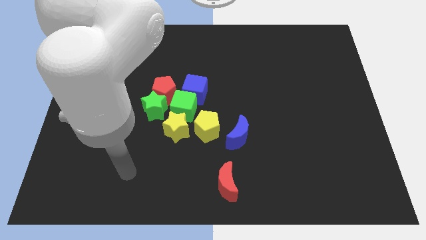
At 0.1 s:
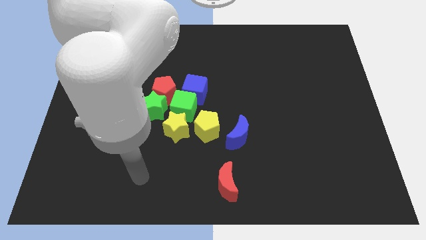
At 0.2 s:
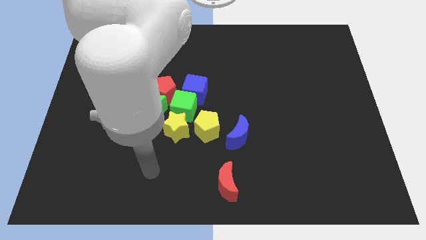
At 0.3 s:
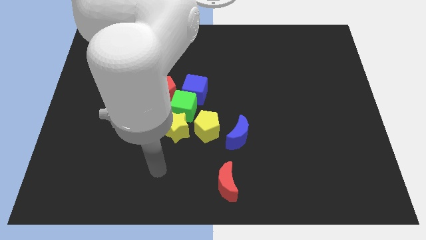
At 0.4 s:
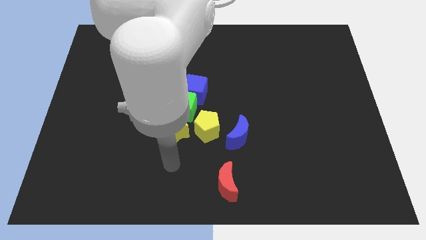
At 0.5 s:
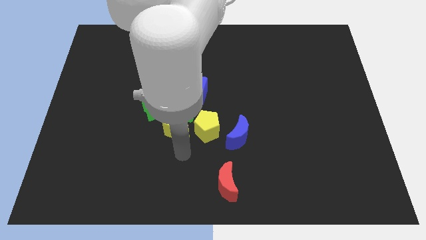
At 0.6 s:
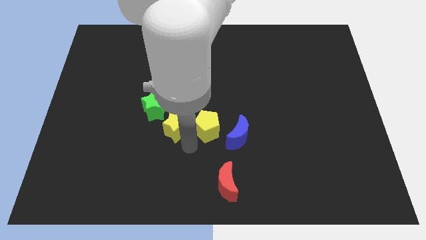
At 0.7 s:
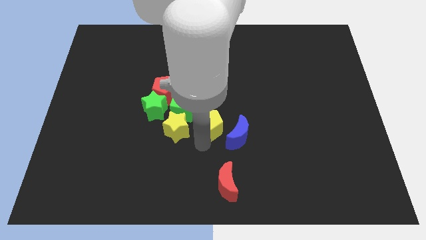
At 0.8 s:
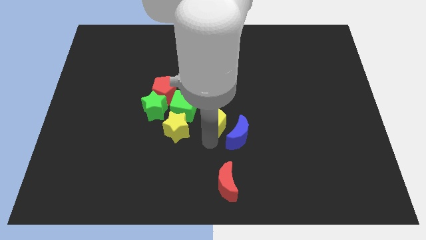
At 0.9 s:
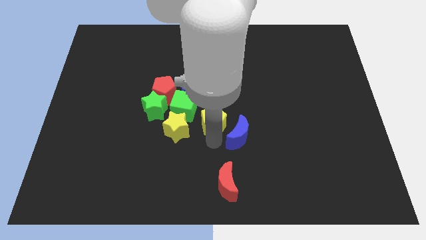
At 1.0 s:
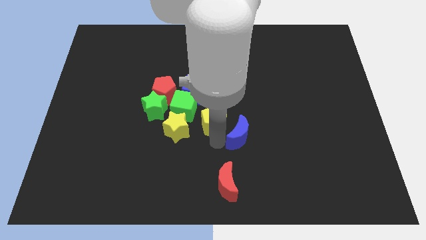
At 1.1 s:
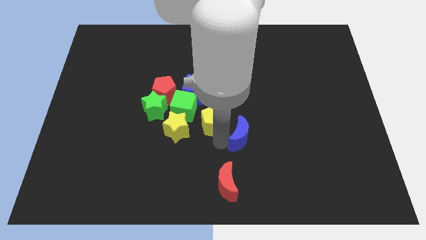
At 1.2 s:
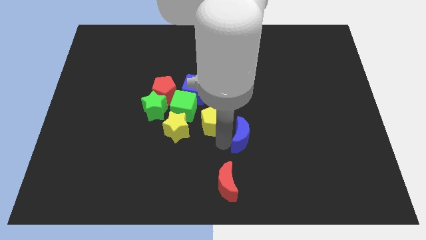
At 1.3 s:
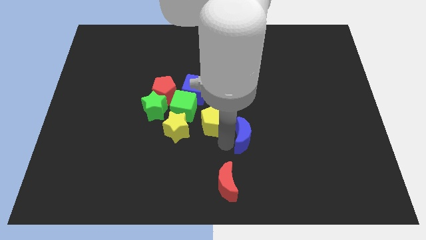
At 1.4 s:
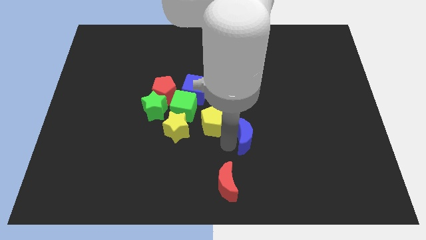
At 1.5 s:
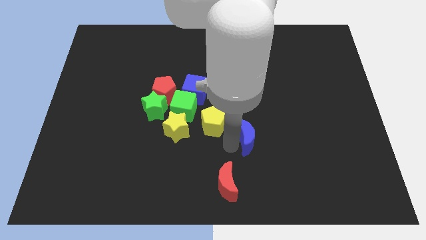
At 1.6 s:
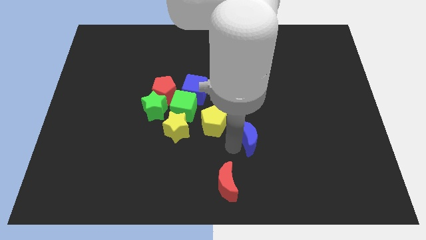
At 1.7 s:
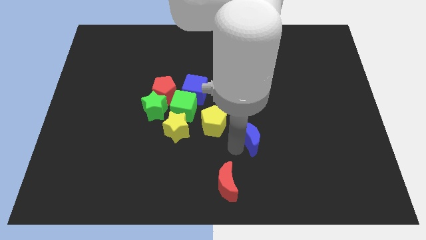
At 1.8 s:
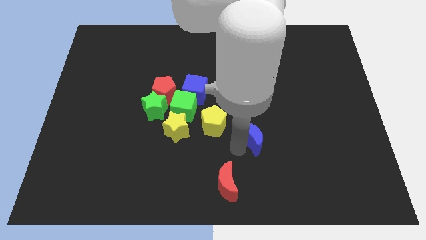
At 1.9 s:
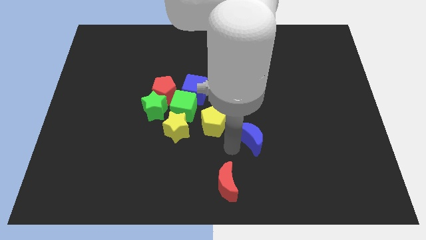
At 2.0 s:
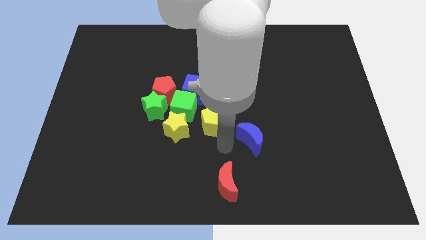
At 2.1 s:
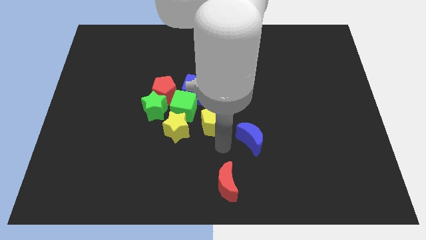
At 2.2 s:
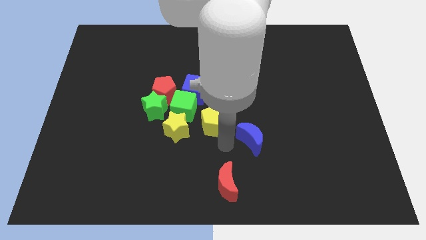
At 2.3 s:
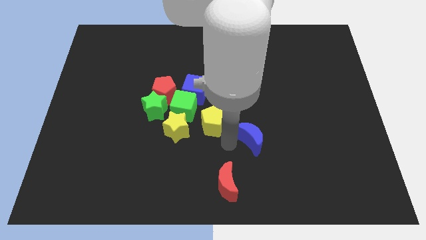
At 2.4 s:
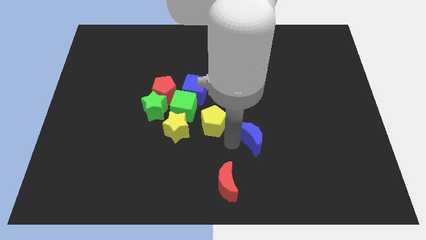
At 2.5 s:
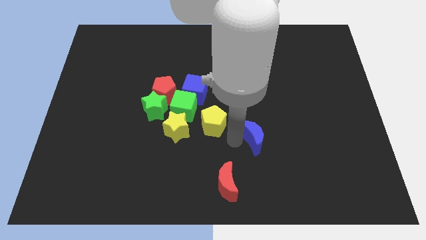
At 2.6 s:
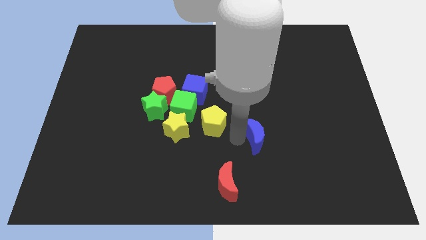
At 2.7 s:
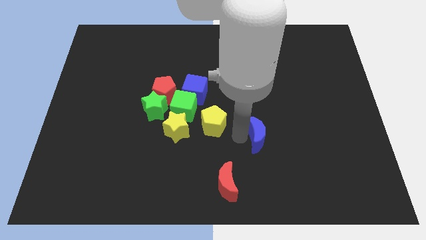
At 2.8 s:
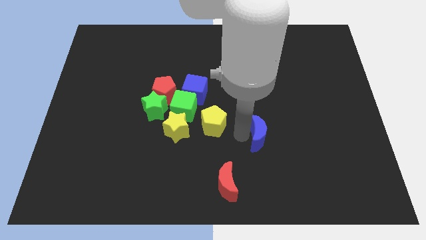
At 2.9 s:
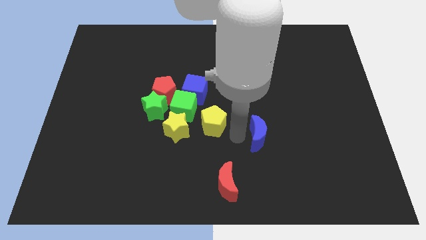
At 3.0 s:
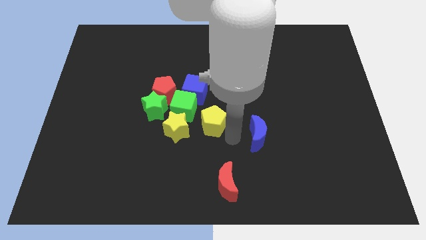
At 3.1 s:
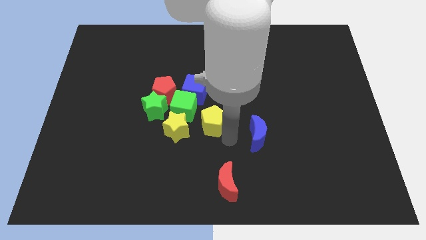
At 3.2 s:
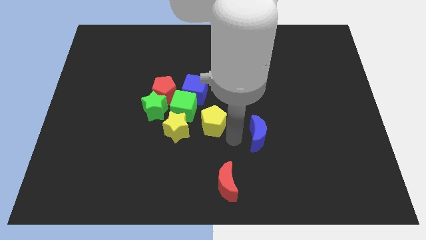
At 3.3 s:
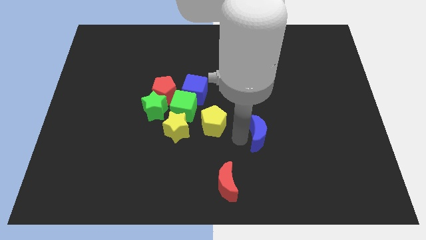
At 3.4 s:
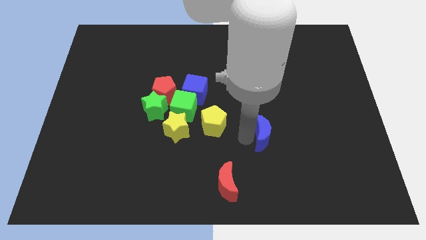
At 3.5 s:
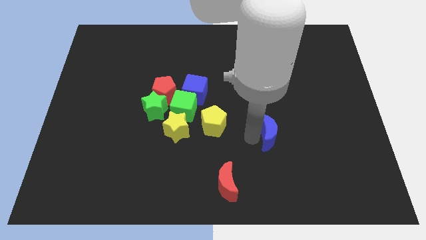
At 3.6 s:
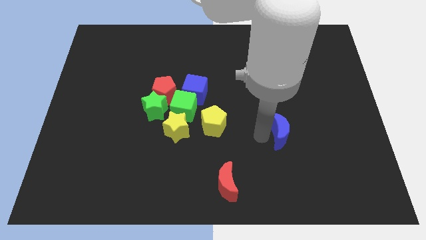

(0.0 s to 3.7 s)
move the blue moon right a little bit

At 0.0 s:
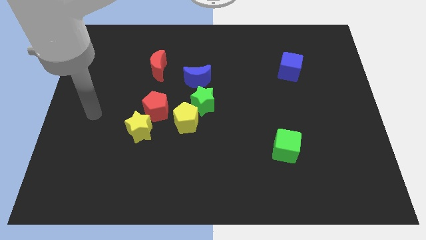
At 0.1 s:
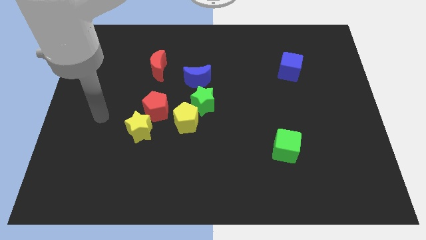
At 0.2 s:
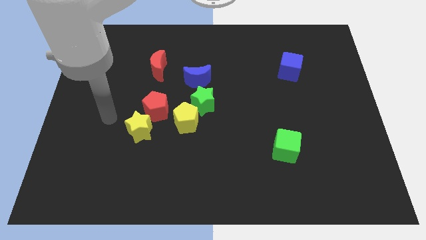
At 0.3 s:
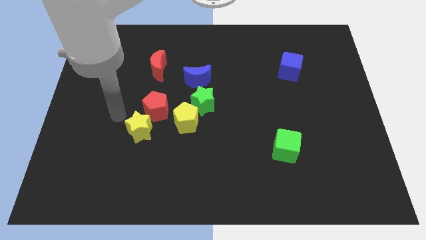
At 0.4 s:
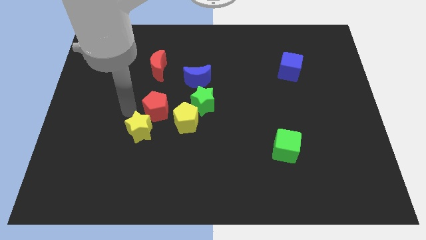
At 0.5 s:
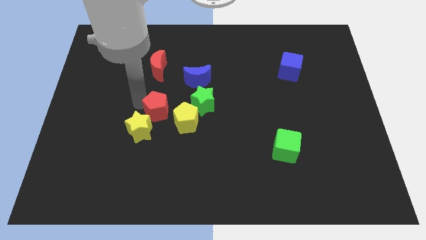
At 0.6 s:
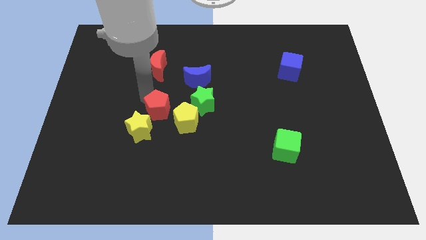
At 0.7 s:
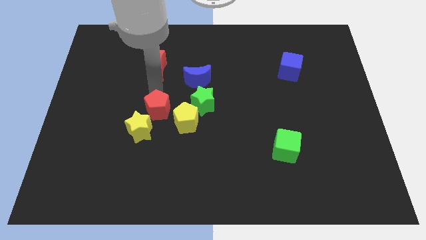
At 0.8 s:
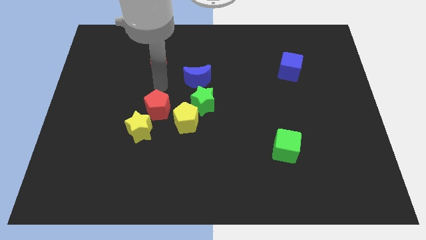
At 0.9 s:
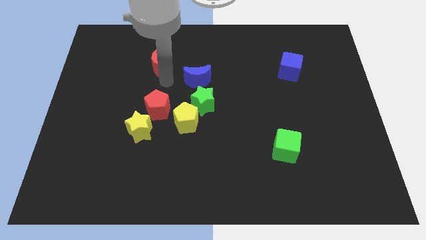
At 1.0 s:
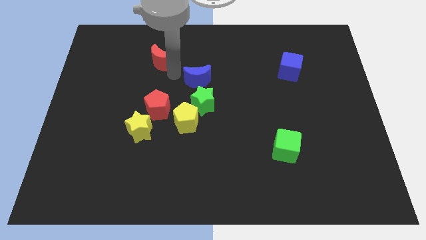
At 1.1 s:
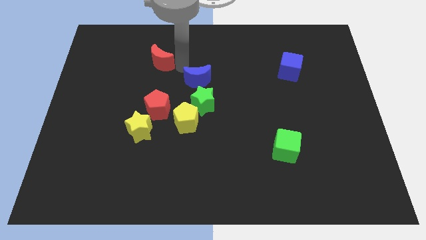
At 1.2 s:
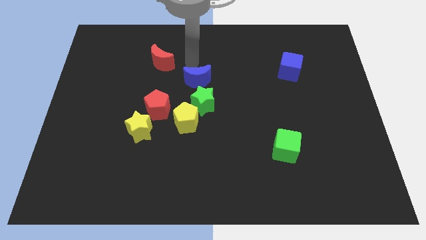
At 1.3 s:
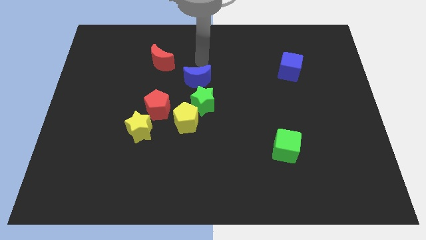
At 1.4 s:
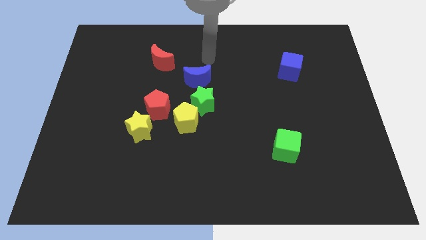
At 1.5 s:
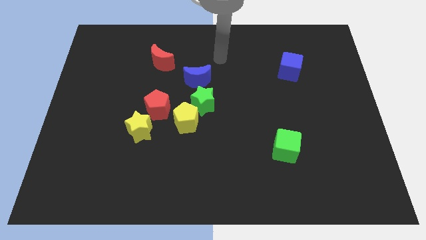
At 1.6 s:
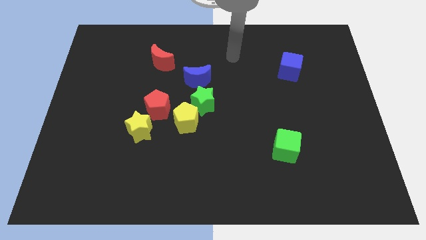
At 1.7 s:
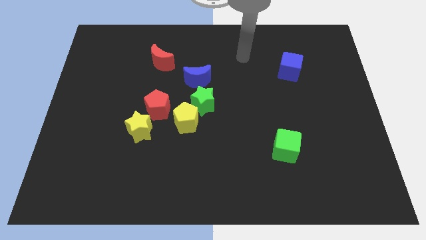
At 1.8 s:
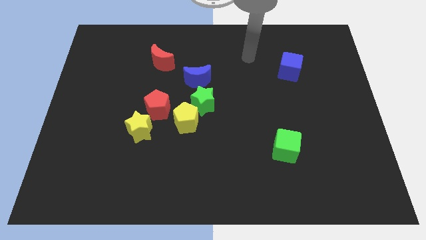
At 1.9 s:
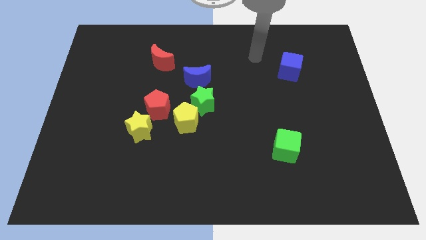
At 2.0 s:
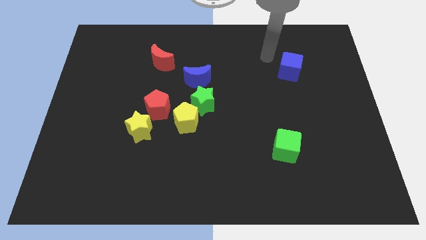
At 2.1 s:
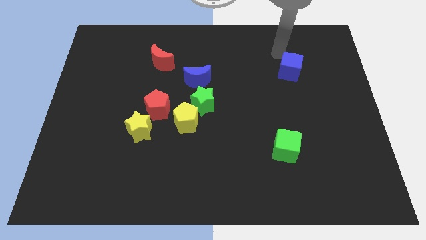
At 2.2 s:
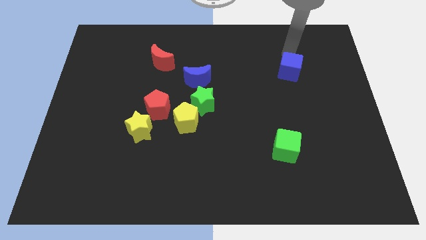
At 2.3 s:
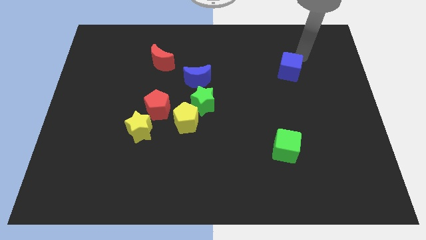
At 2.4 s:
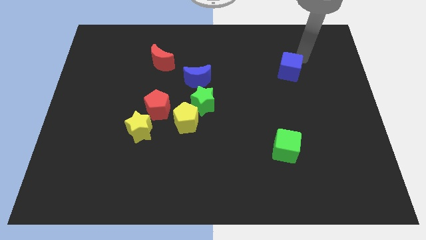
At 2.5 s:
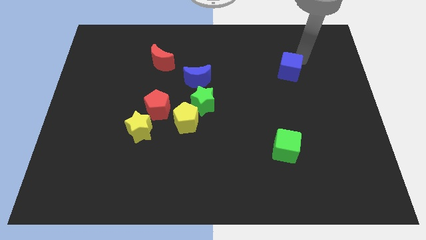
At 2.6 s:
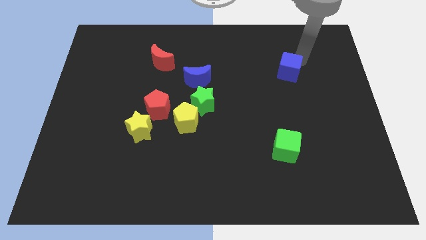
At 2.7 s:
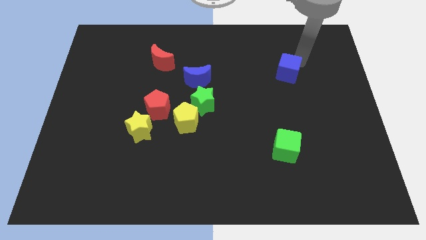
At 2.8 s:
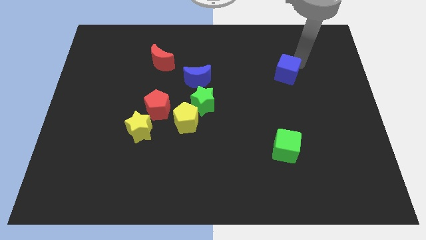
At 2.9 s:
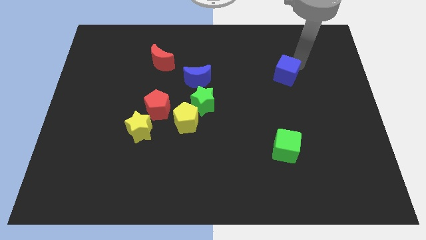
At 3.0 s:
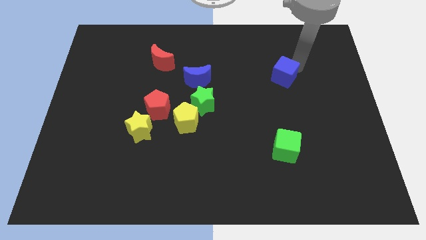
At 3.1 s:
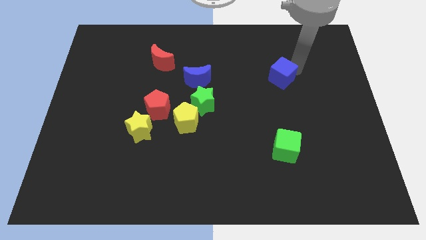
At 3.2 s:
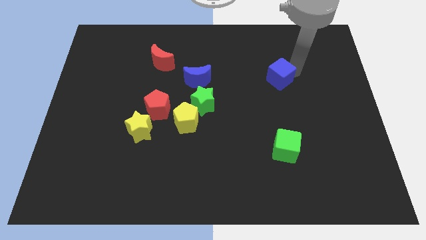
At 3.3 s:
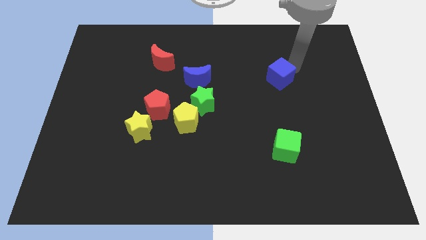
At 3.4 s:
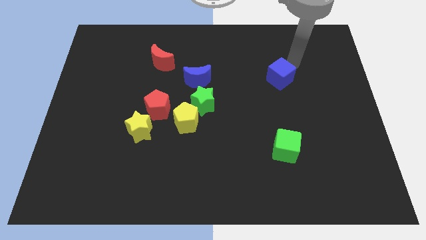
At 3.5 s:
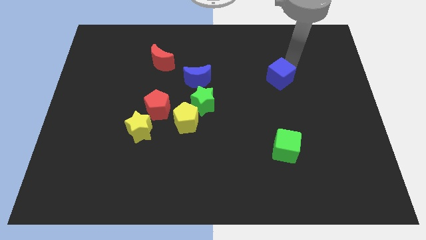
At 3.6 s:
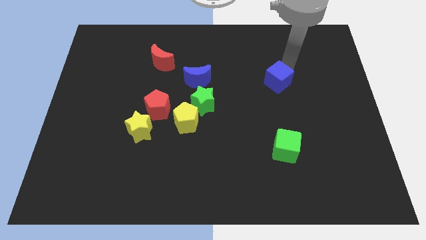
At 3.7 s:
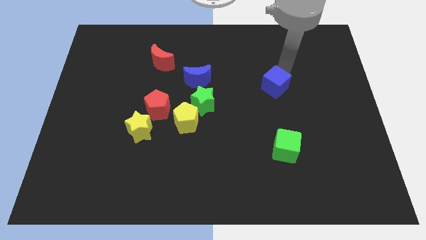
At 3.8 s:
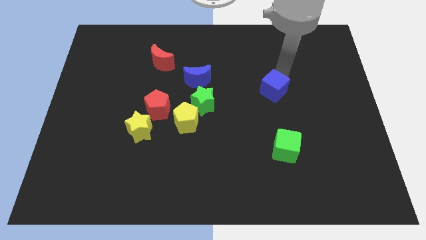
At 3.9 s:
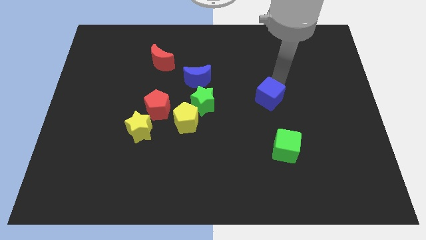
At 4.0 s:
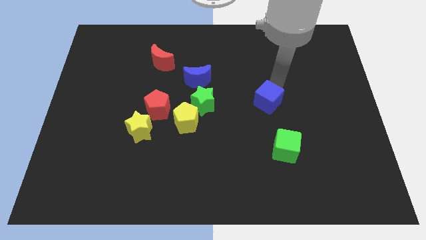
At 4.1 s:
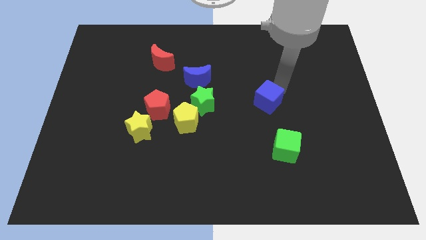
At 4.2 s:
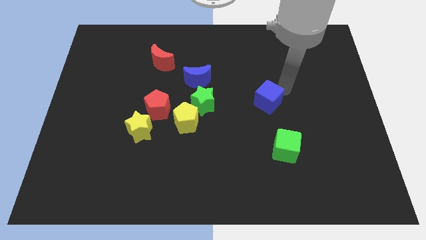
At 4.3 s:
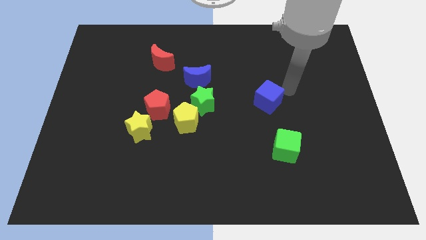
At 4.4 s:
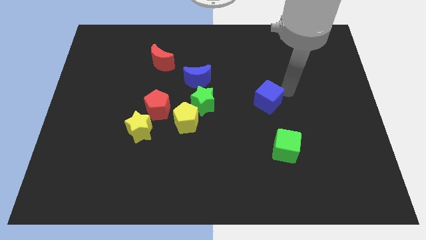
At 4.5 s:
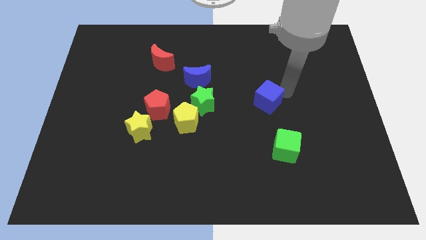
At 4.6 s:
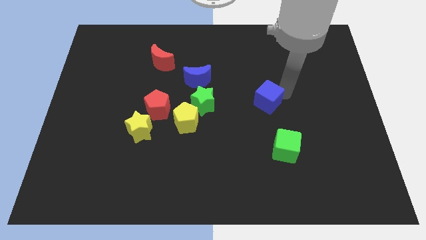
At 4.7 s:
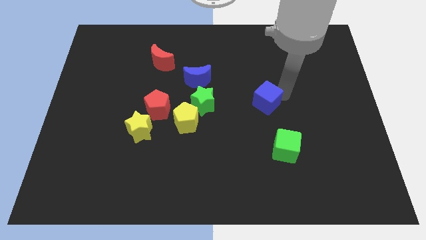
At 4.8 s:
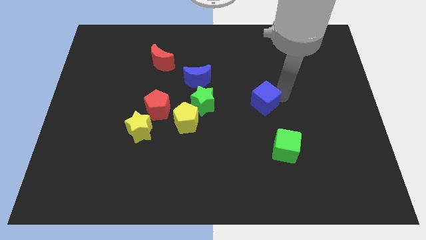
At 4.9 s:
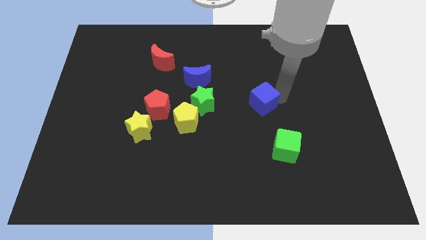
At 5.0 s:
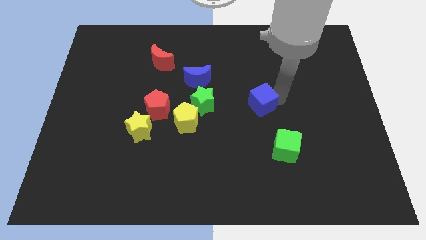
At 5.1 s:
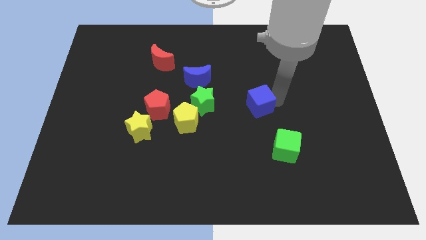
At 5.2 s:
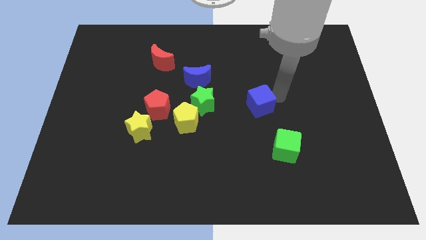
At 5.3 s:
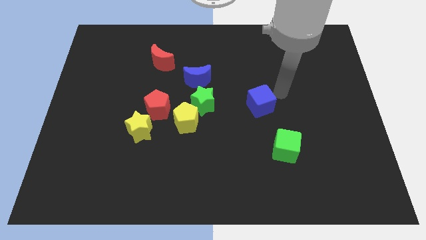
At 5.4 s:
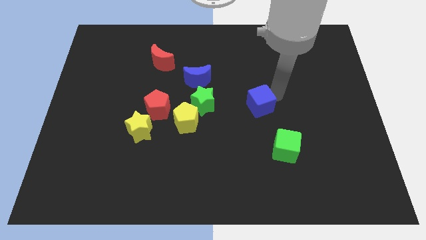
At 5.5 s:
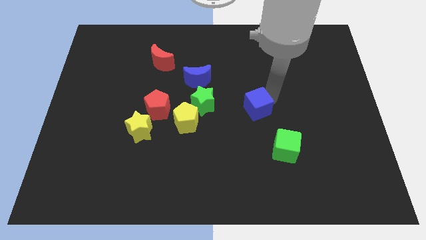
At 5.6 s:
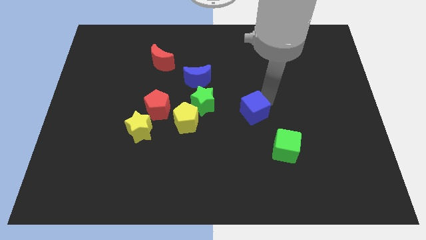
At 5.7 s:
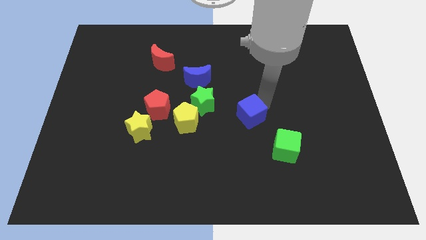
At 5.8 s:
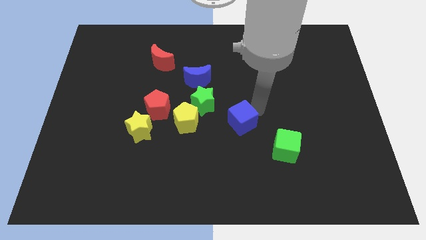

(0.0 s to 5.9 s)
slide the blue cube down and to the left
